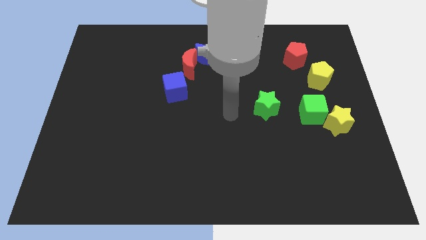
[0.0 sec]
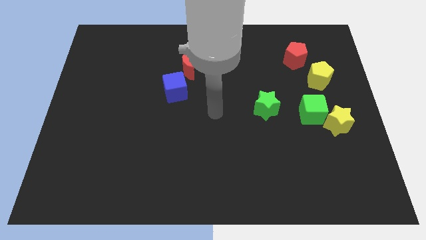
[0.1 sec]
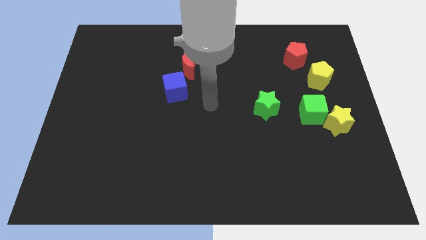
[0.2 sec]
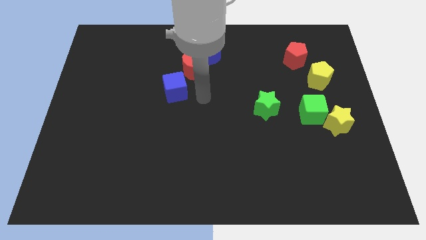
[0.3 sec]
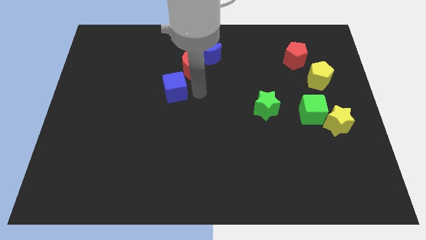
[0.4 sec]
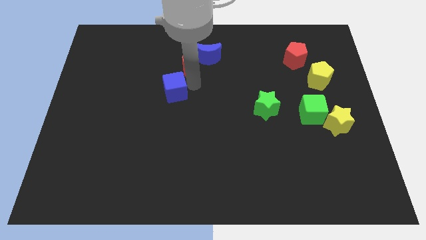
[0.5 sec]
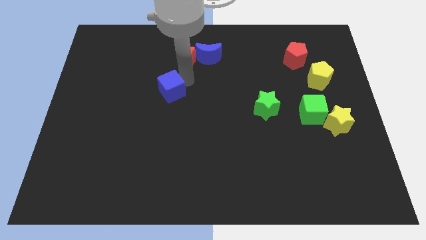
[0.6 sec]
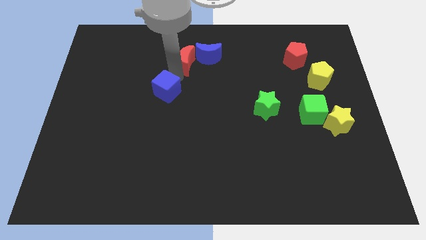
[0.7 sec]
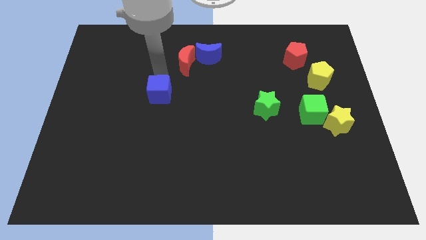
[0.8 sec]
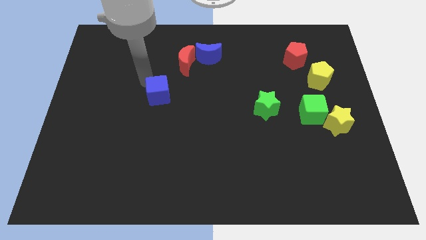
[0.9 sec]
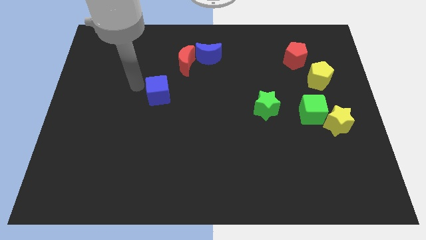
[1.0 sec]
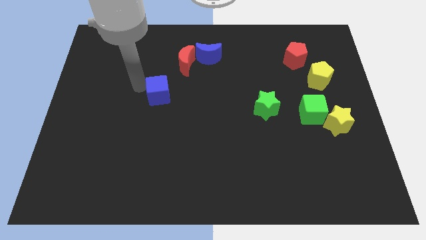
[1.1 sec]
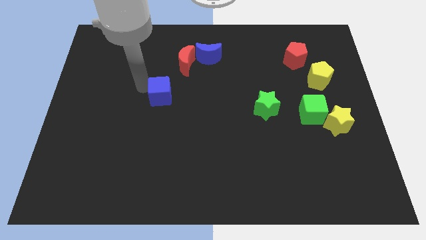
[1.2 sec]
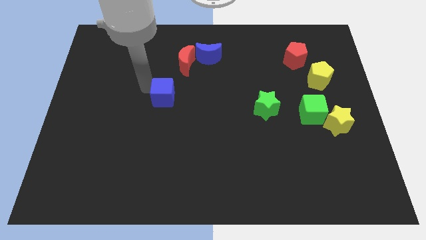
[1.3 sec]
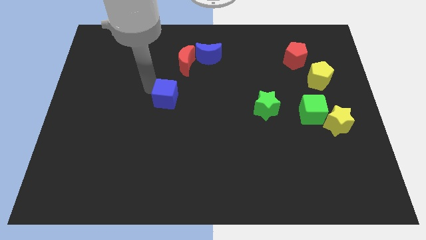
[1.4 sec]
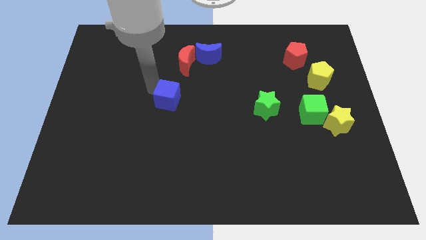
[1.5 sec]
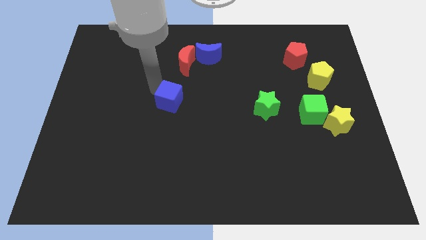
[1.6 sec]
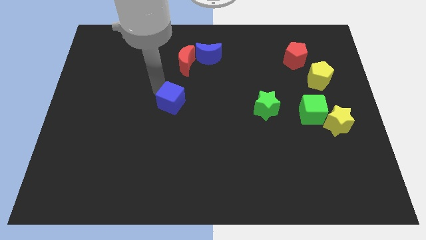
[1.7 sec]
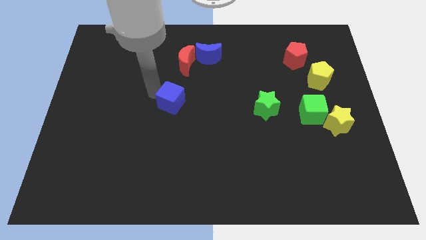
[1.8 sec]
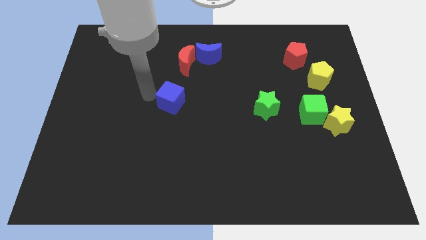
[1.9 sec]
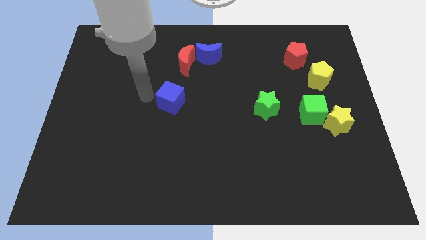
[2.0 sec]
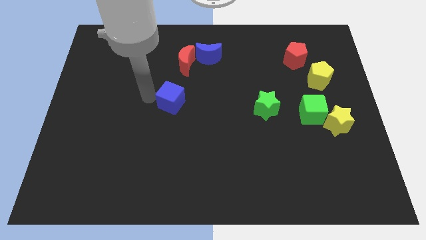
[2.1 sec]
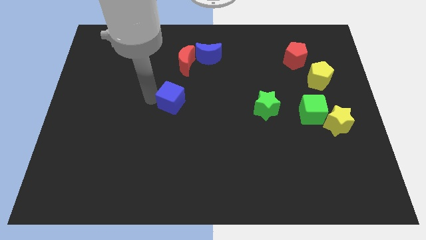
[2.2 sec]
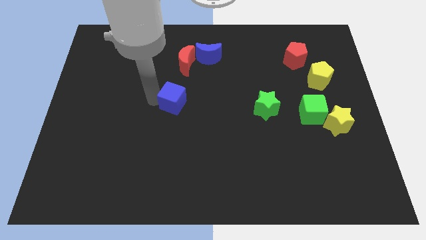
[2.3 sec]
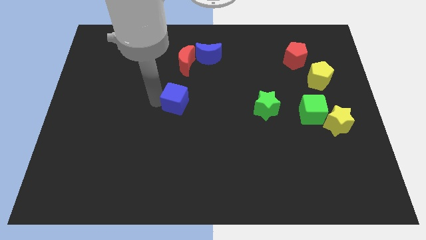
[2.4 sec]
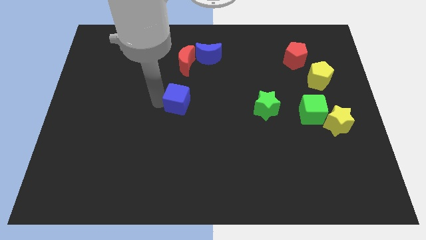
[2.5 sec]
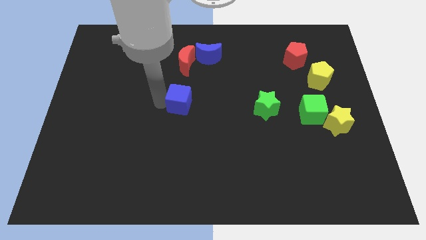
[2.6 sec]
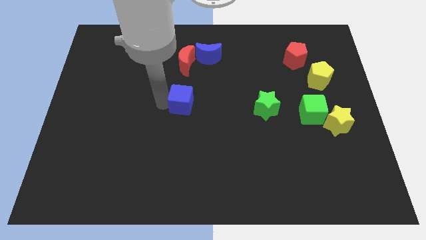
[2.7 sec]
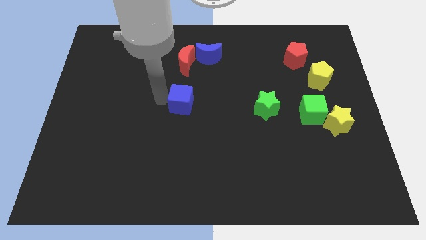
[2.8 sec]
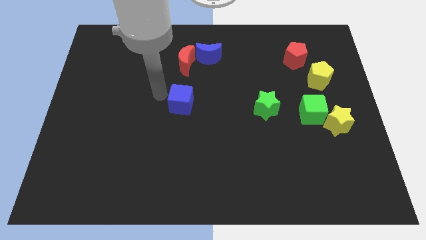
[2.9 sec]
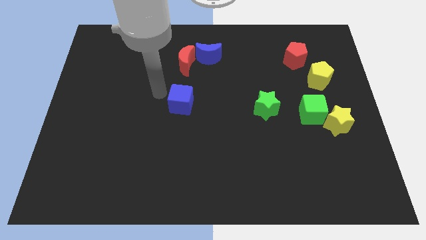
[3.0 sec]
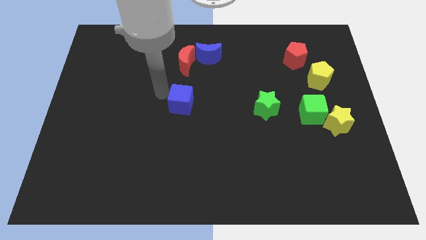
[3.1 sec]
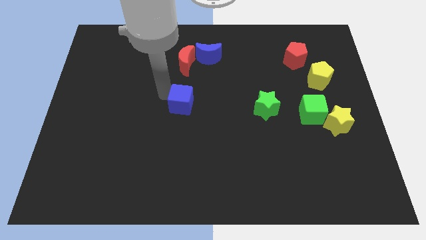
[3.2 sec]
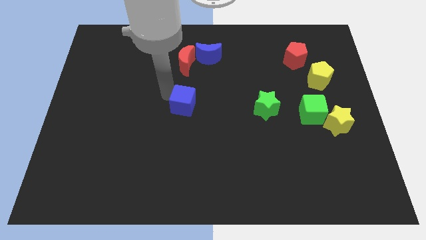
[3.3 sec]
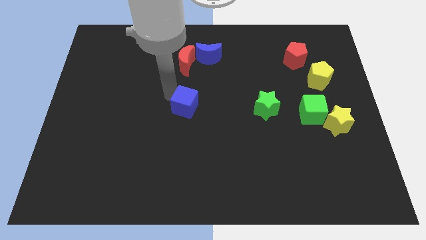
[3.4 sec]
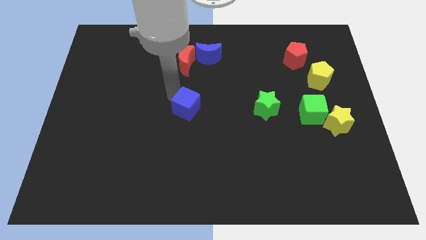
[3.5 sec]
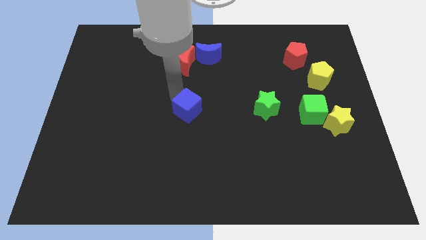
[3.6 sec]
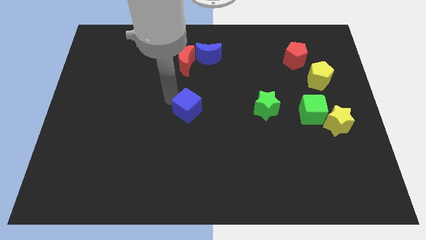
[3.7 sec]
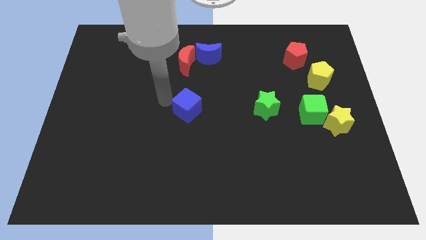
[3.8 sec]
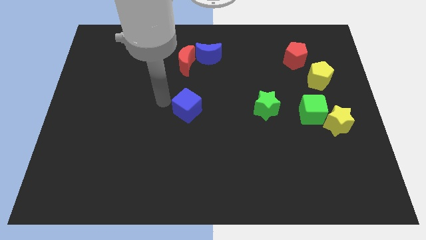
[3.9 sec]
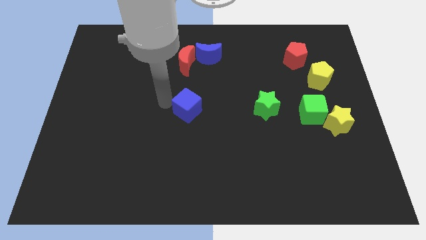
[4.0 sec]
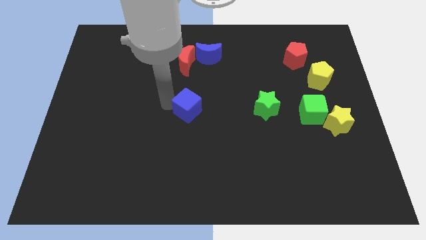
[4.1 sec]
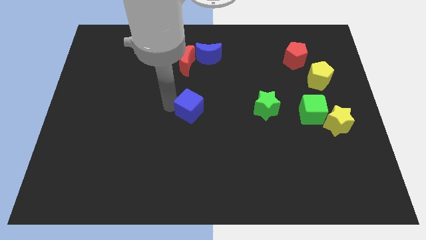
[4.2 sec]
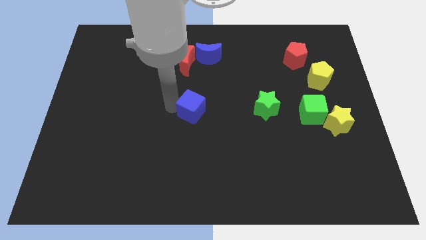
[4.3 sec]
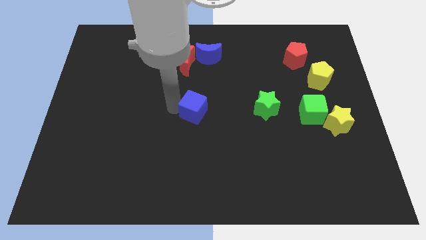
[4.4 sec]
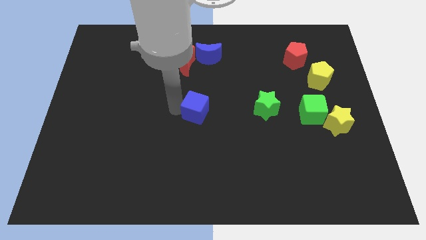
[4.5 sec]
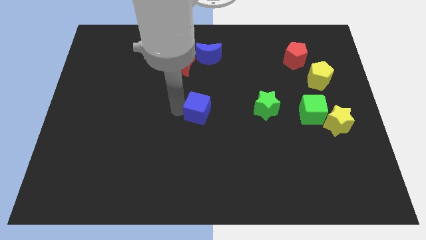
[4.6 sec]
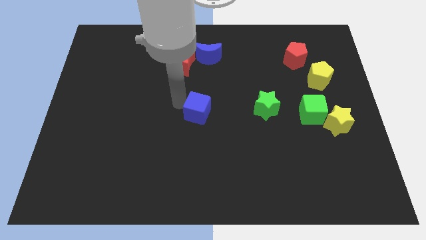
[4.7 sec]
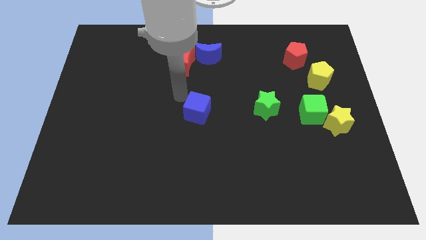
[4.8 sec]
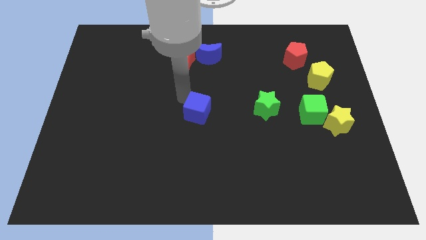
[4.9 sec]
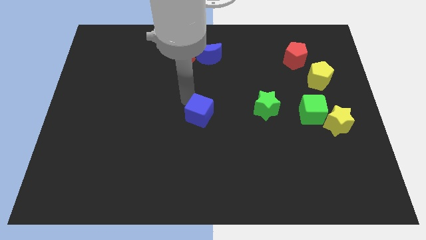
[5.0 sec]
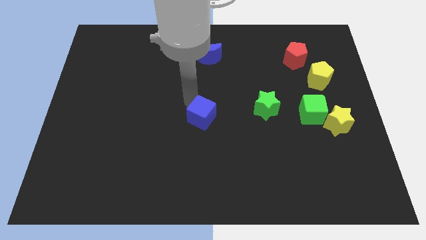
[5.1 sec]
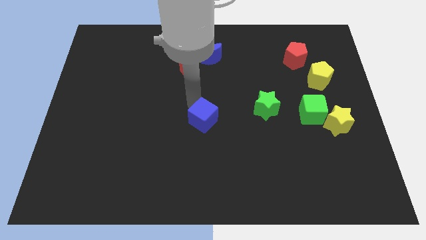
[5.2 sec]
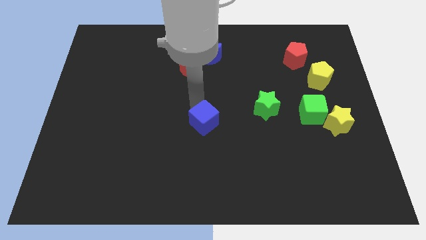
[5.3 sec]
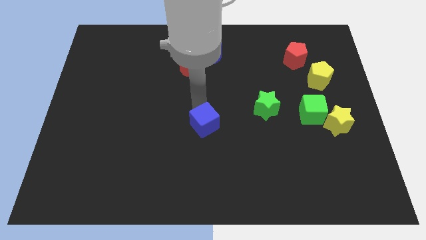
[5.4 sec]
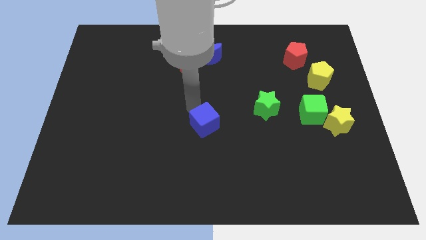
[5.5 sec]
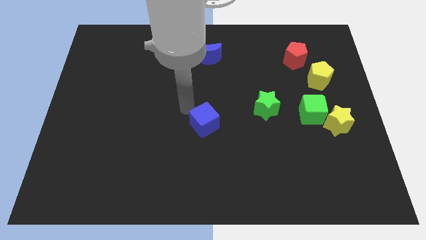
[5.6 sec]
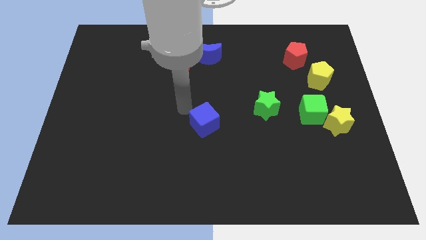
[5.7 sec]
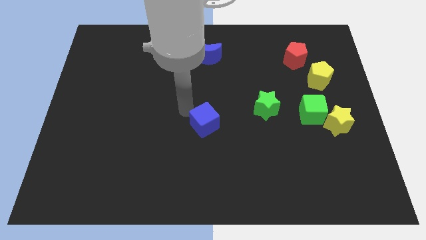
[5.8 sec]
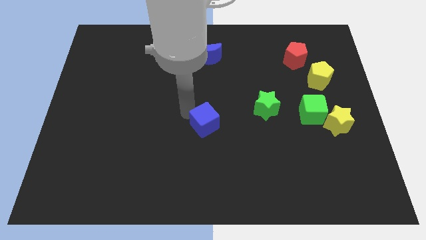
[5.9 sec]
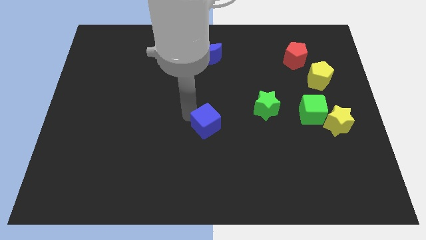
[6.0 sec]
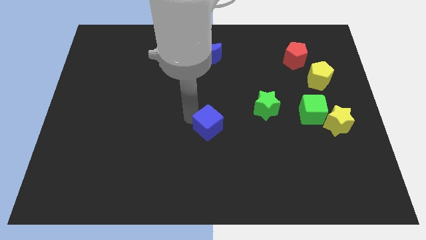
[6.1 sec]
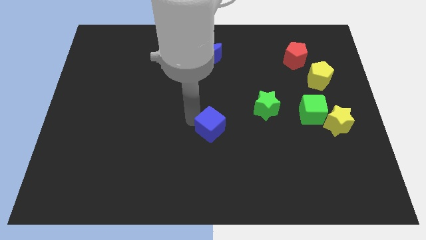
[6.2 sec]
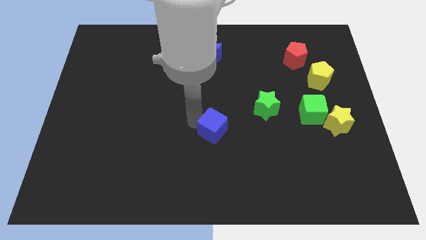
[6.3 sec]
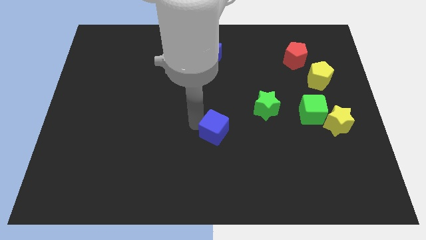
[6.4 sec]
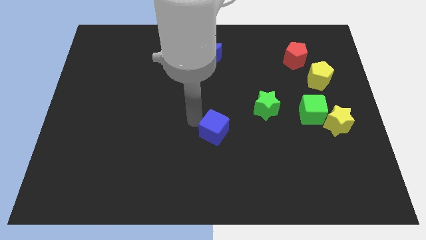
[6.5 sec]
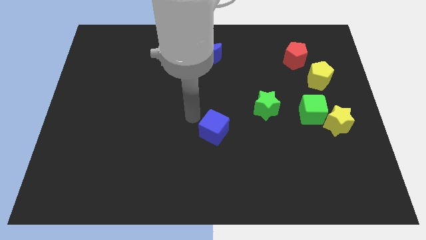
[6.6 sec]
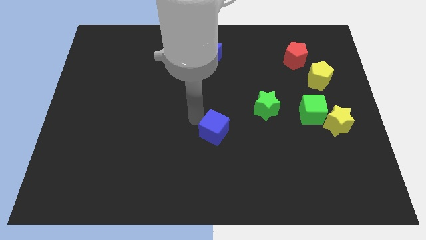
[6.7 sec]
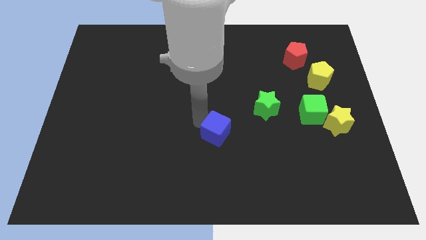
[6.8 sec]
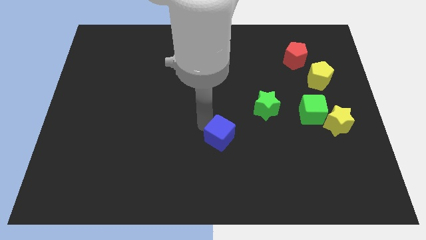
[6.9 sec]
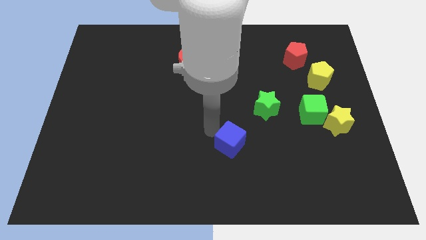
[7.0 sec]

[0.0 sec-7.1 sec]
slide the blue cube down and to the right

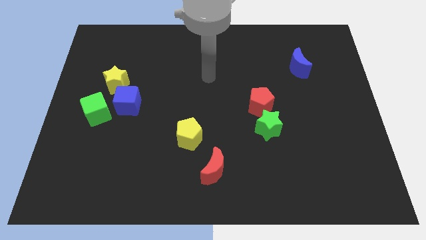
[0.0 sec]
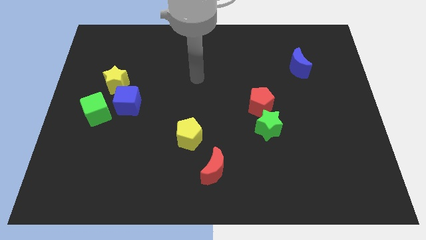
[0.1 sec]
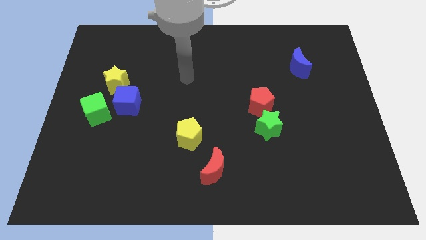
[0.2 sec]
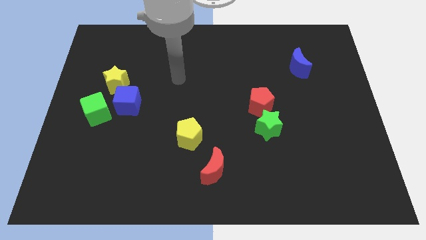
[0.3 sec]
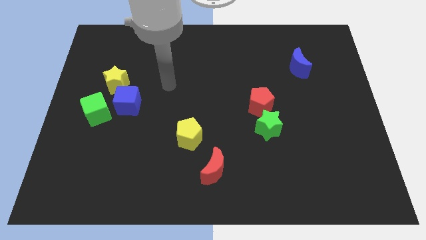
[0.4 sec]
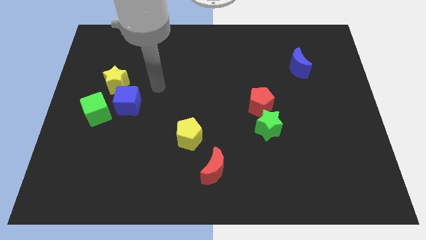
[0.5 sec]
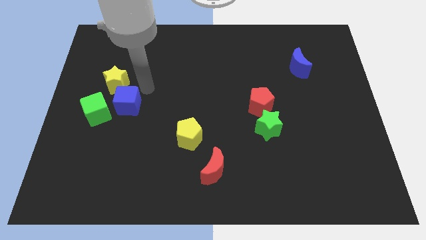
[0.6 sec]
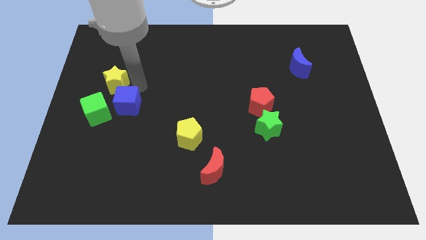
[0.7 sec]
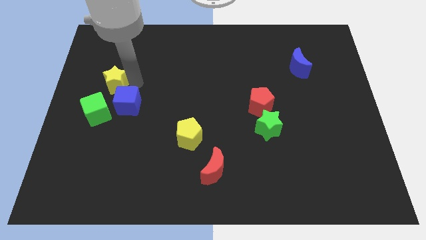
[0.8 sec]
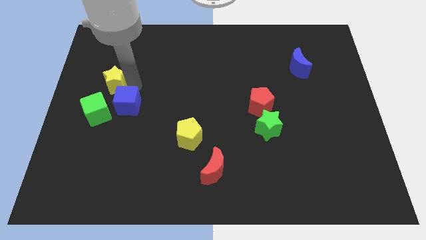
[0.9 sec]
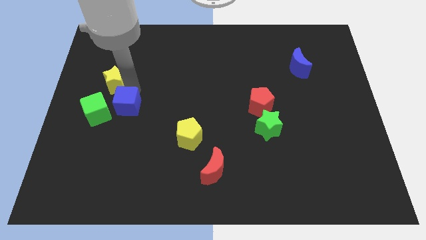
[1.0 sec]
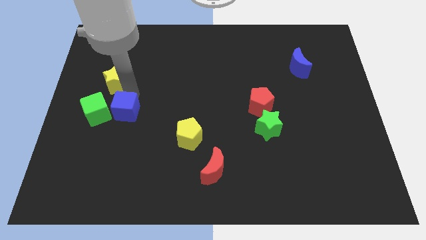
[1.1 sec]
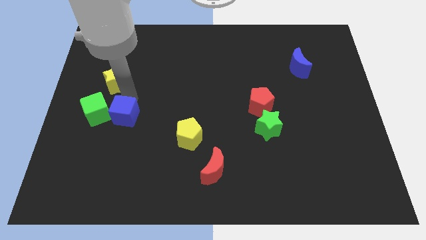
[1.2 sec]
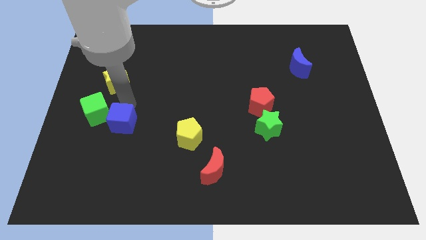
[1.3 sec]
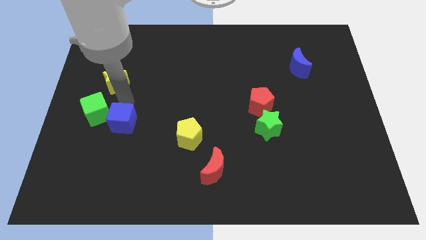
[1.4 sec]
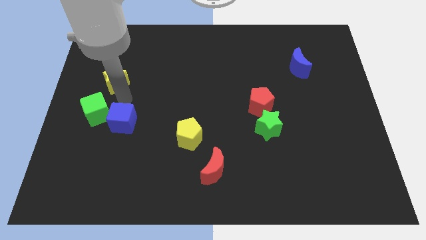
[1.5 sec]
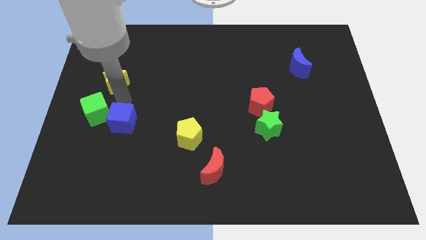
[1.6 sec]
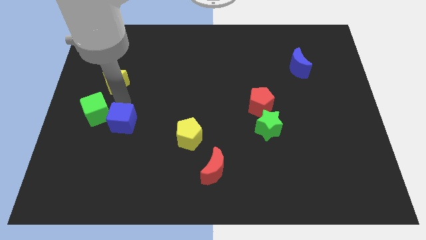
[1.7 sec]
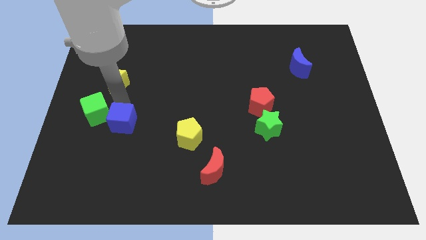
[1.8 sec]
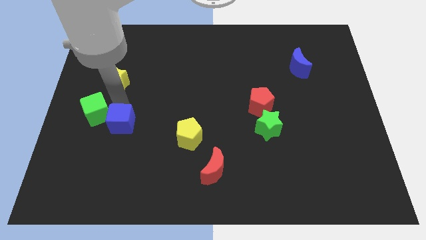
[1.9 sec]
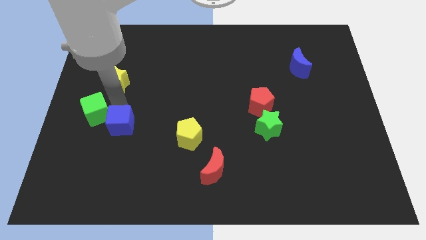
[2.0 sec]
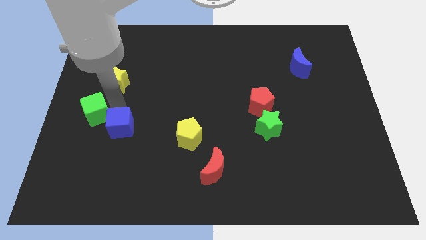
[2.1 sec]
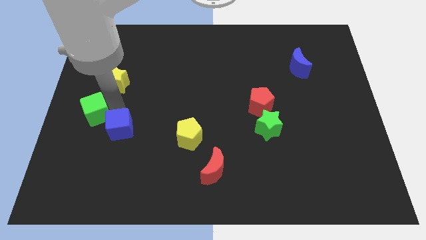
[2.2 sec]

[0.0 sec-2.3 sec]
move the blue cube somewhat down
